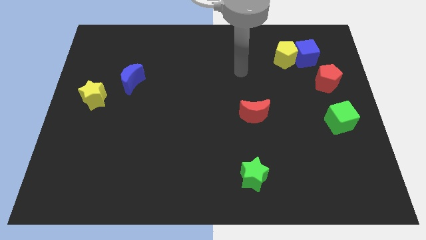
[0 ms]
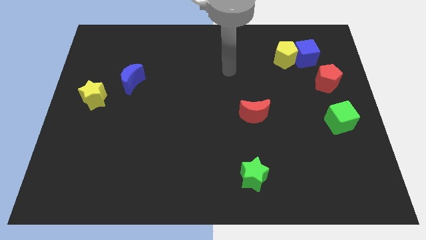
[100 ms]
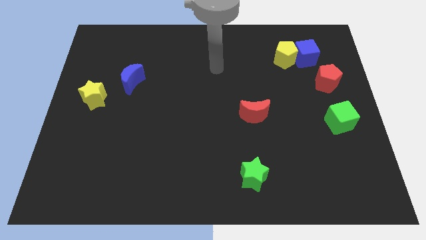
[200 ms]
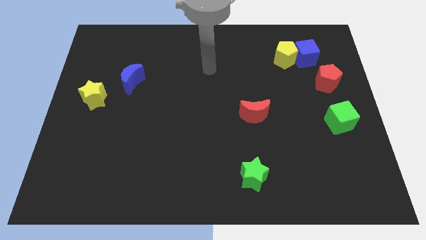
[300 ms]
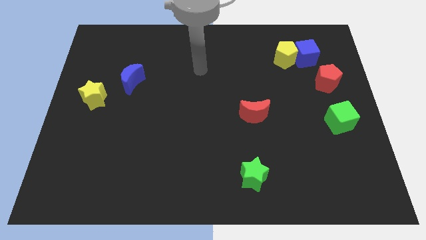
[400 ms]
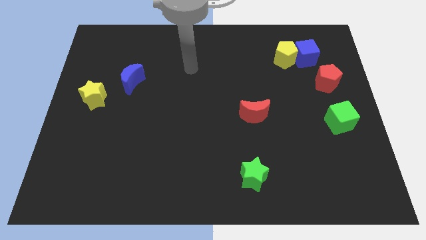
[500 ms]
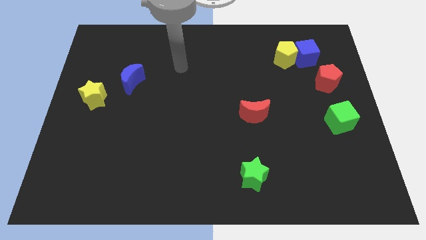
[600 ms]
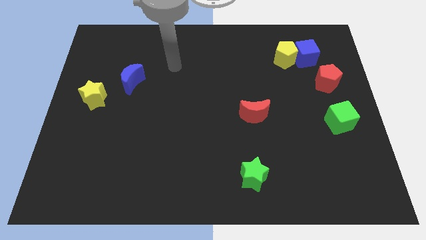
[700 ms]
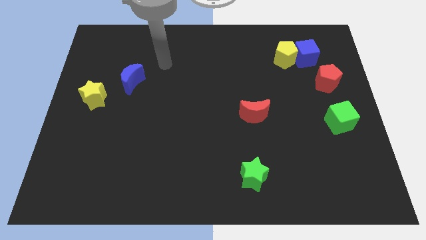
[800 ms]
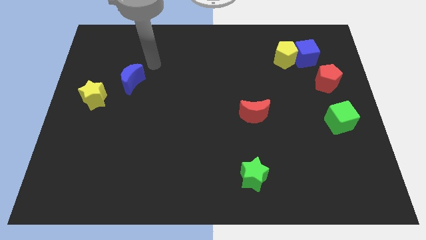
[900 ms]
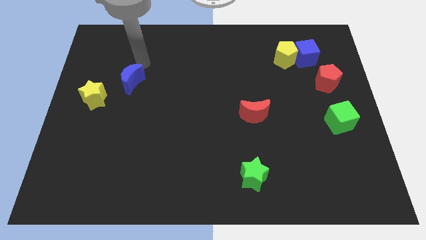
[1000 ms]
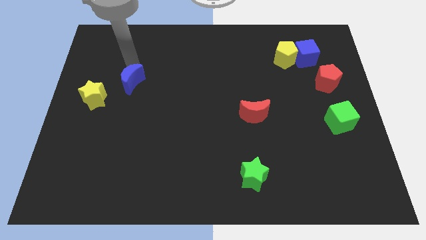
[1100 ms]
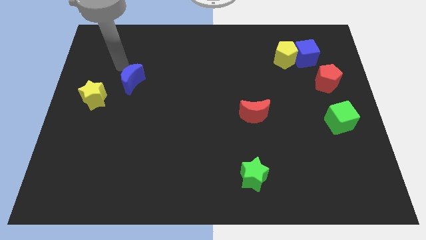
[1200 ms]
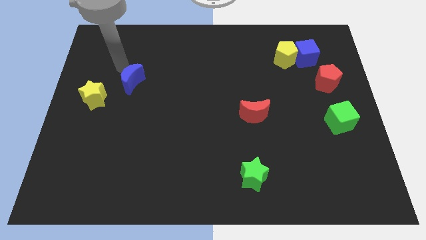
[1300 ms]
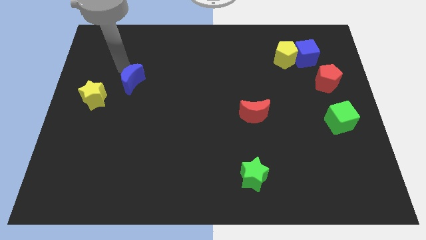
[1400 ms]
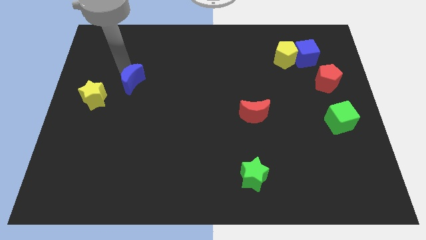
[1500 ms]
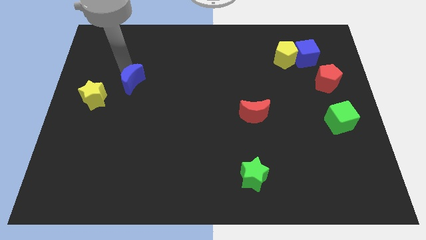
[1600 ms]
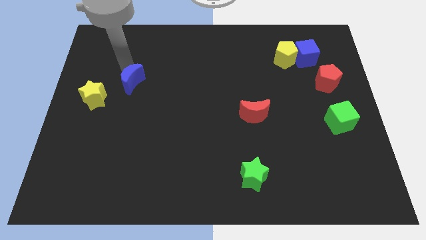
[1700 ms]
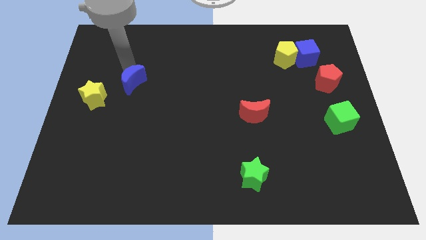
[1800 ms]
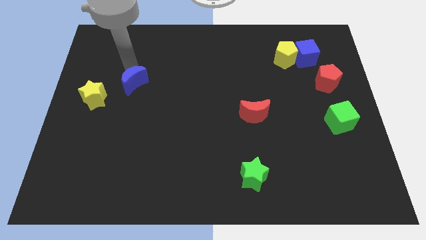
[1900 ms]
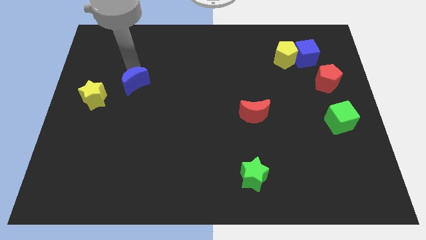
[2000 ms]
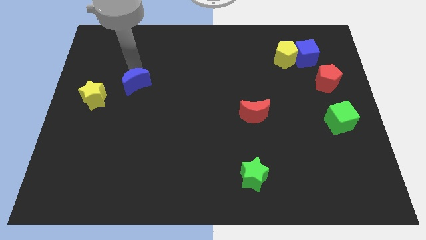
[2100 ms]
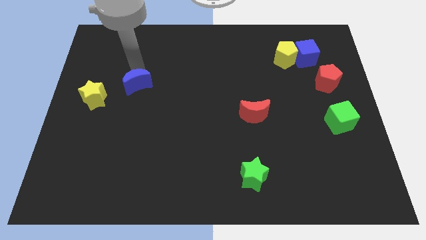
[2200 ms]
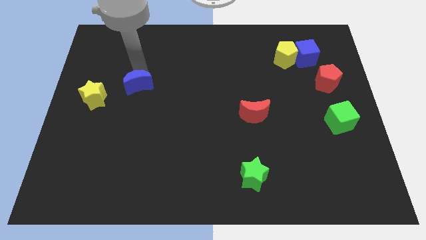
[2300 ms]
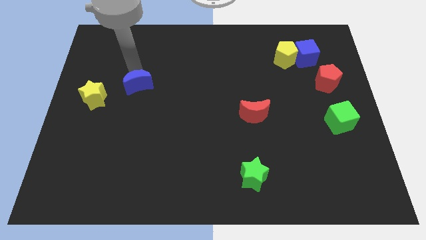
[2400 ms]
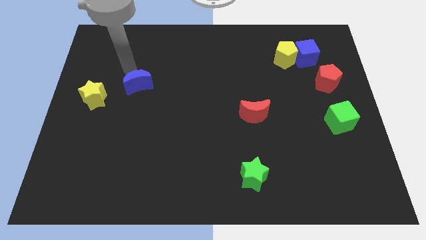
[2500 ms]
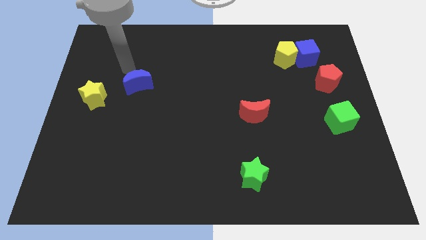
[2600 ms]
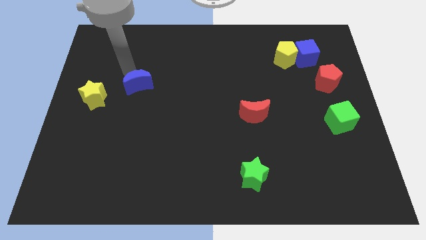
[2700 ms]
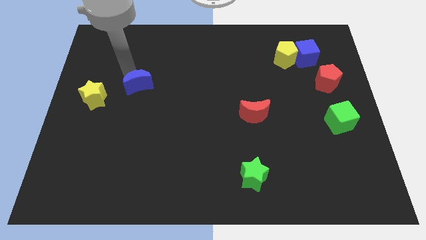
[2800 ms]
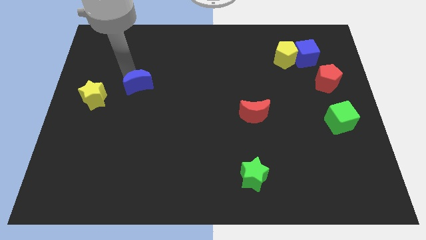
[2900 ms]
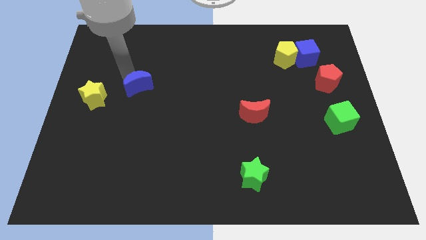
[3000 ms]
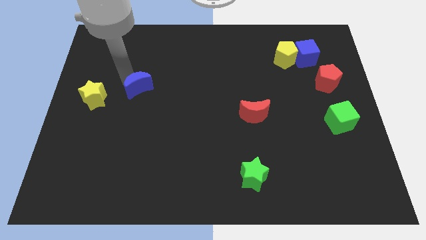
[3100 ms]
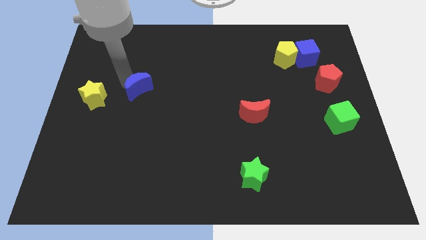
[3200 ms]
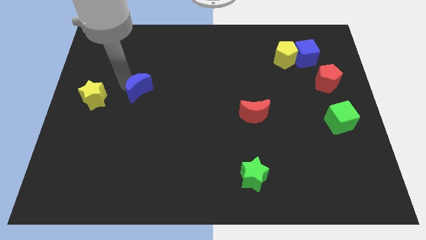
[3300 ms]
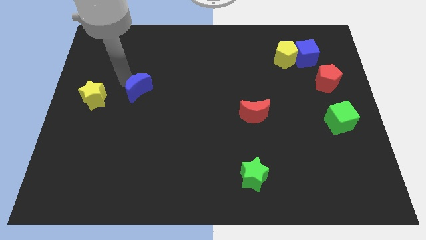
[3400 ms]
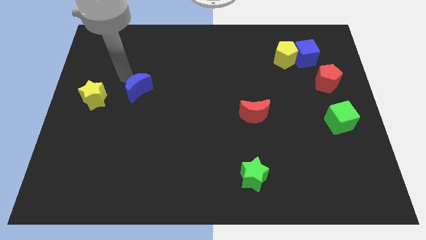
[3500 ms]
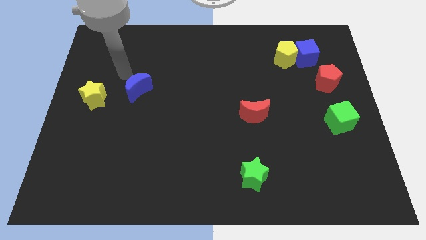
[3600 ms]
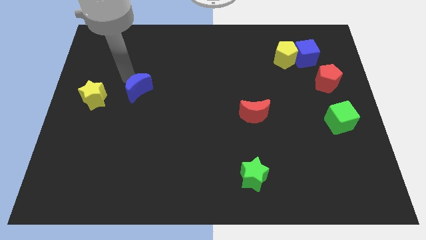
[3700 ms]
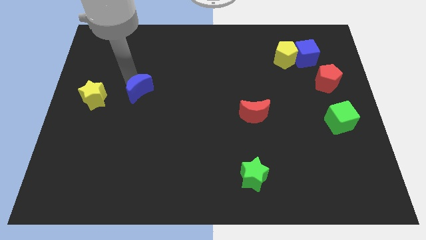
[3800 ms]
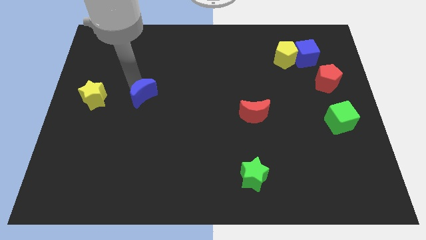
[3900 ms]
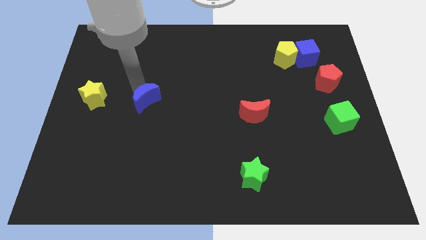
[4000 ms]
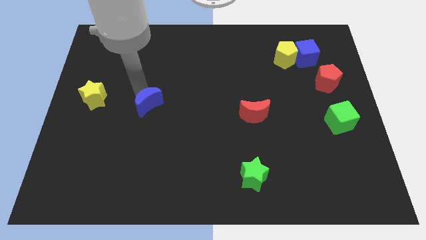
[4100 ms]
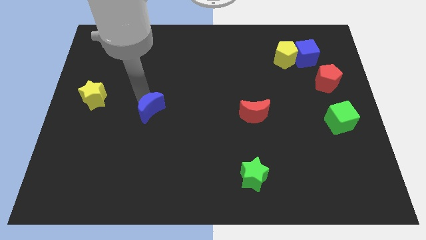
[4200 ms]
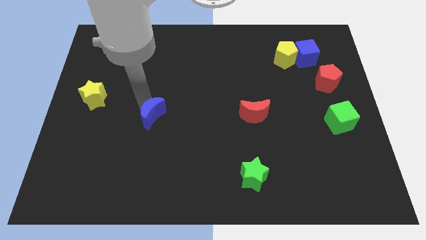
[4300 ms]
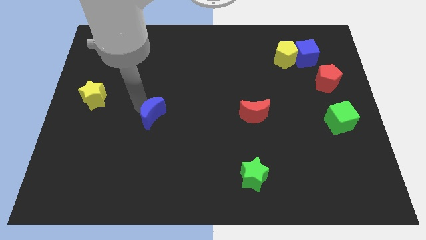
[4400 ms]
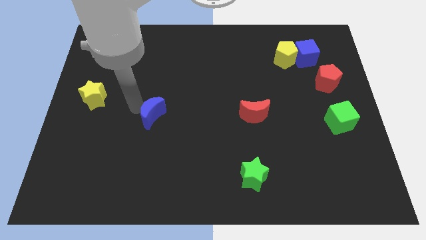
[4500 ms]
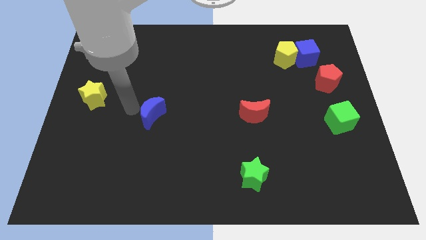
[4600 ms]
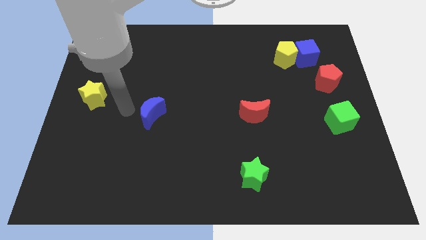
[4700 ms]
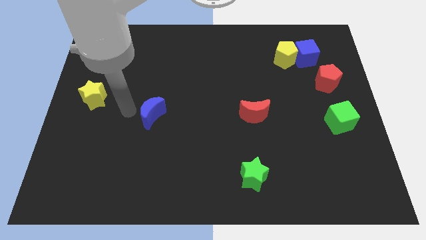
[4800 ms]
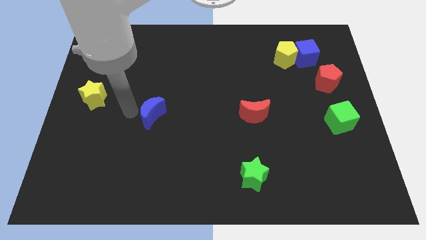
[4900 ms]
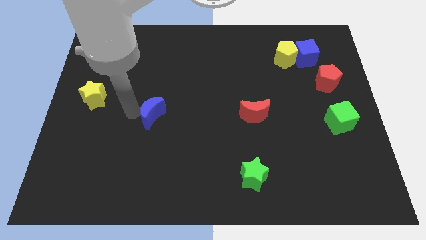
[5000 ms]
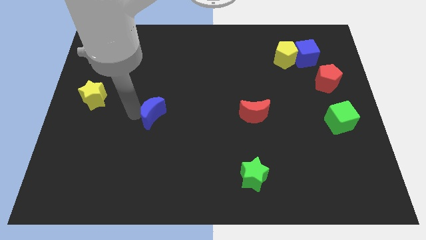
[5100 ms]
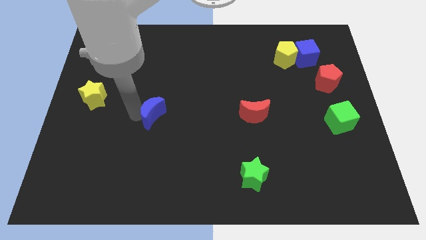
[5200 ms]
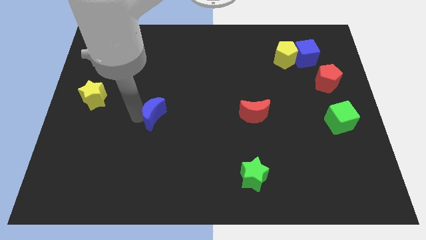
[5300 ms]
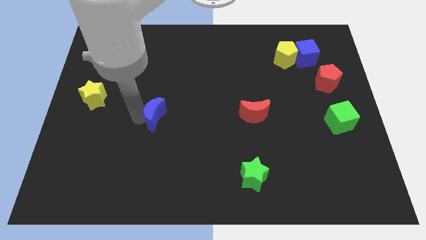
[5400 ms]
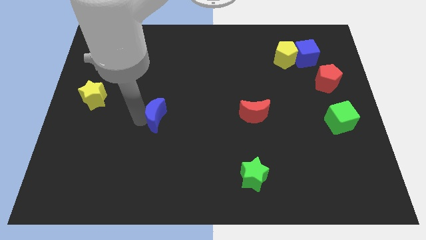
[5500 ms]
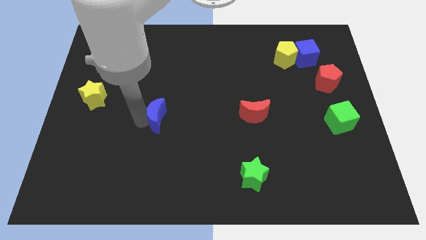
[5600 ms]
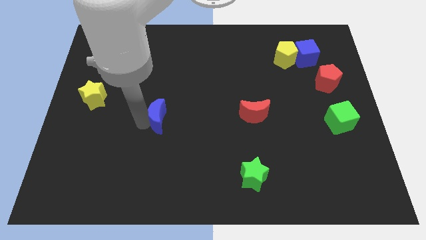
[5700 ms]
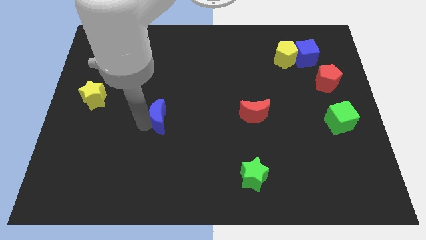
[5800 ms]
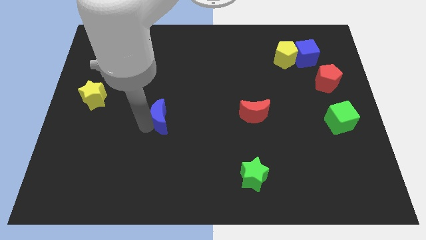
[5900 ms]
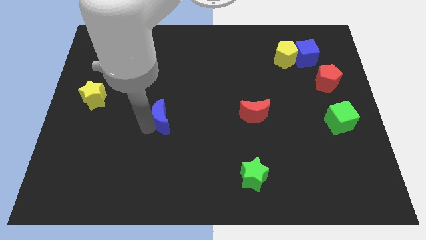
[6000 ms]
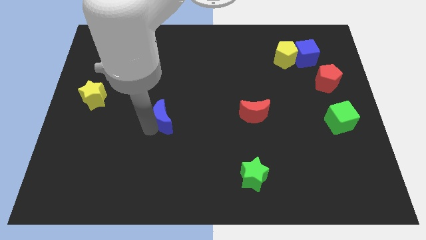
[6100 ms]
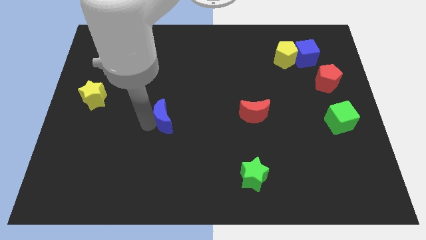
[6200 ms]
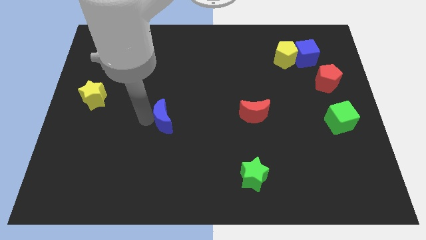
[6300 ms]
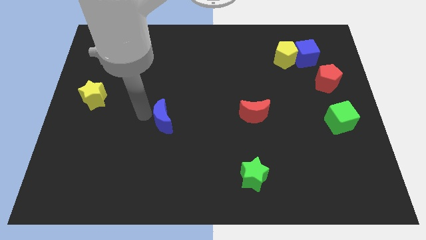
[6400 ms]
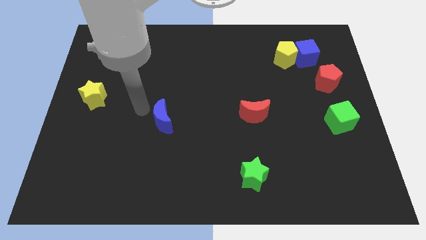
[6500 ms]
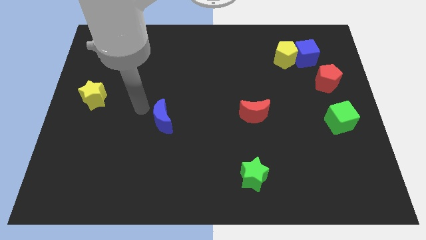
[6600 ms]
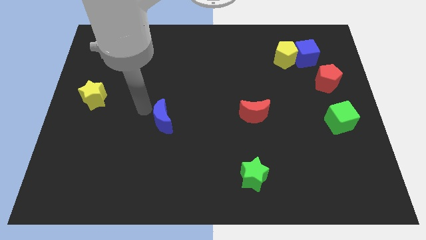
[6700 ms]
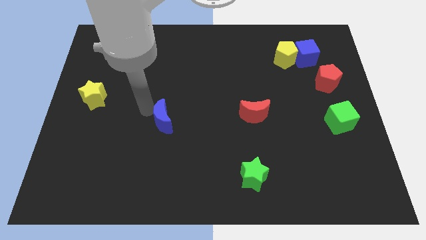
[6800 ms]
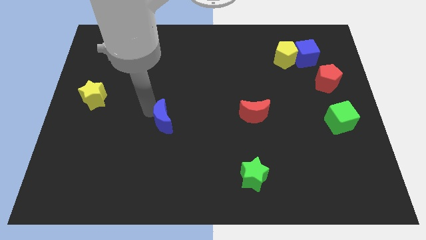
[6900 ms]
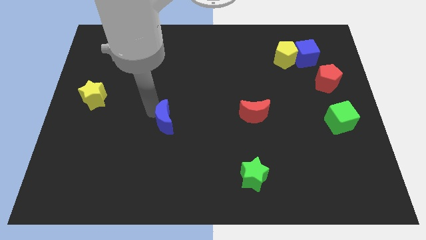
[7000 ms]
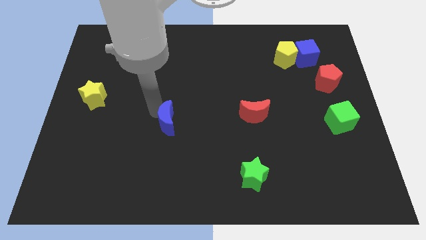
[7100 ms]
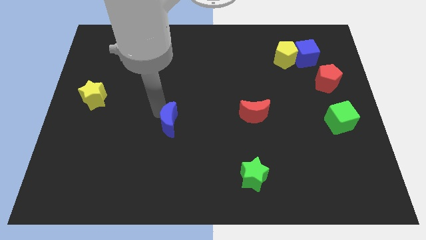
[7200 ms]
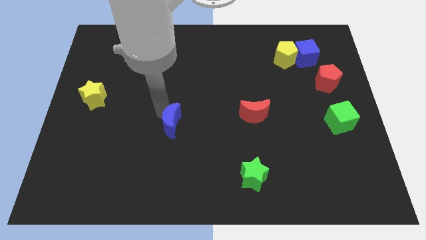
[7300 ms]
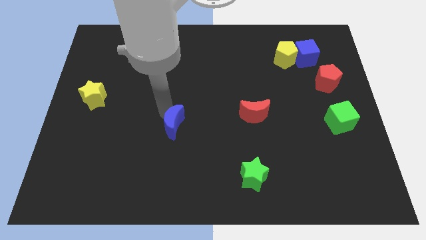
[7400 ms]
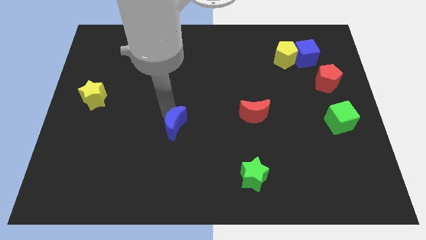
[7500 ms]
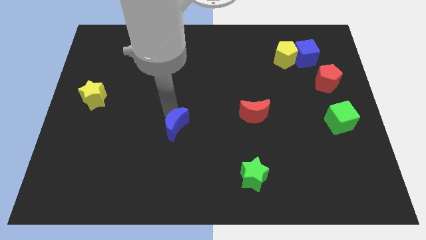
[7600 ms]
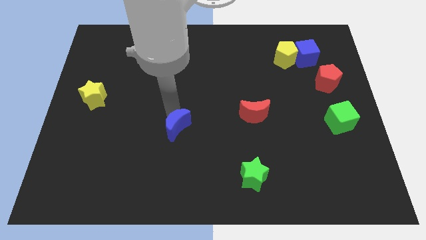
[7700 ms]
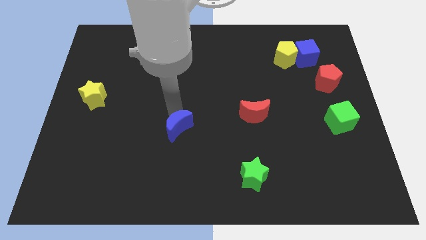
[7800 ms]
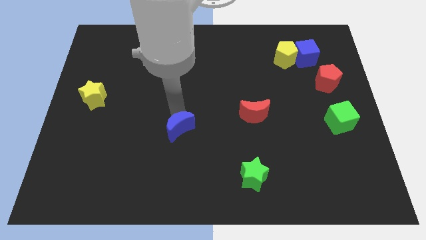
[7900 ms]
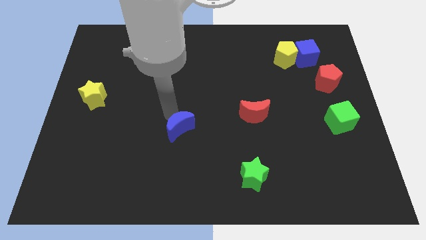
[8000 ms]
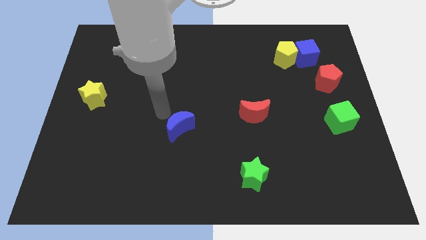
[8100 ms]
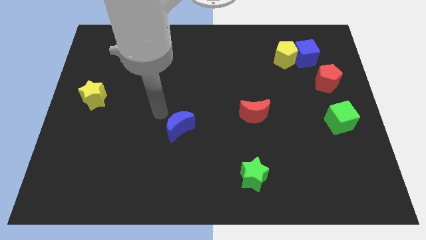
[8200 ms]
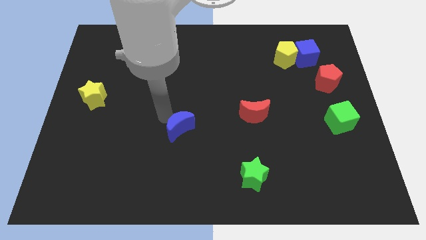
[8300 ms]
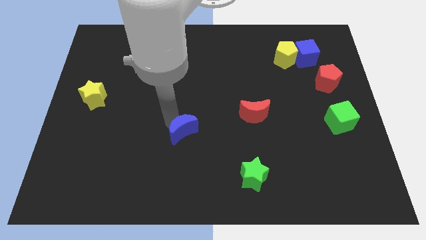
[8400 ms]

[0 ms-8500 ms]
slide the blue moon downwards and then right
